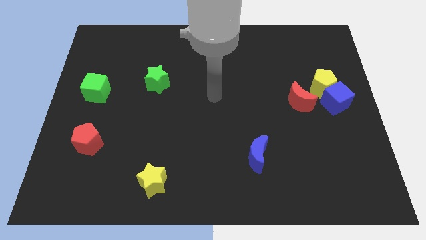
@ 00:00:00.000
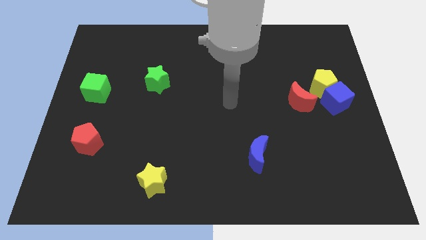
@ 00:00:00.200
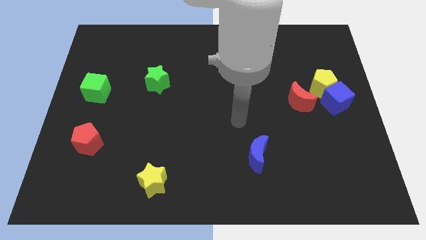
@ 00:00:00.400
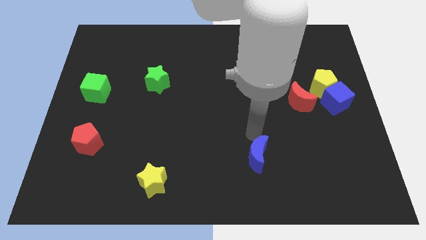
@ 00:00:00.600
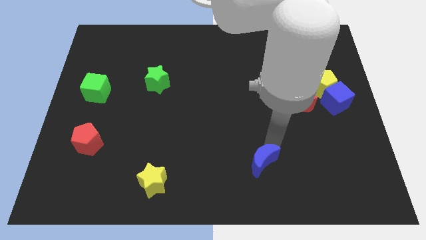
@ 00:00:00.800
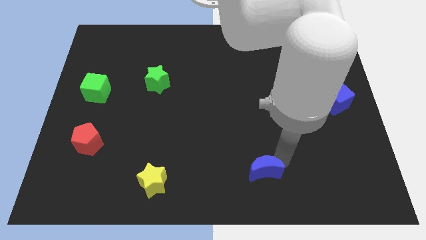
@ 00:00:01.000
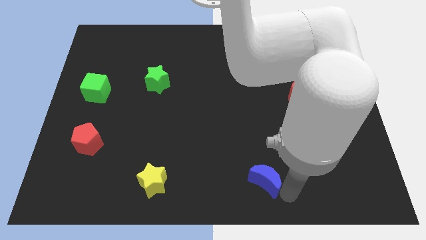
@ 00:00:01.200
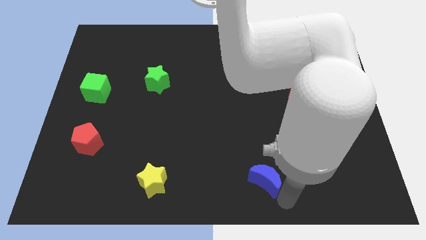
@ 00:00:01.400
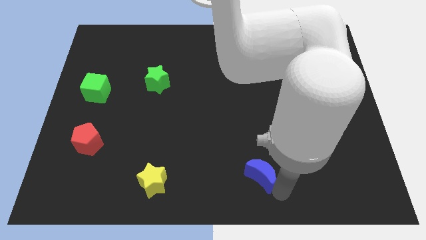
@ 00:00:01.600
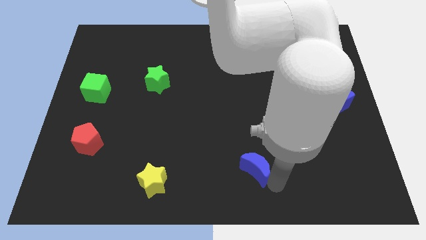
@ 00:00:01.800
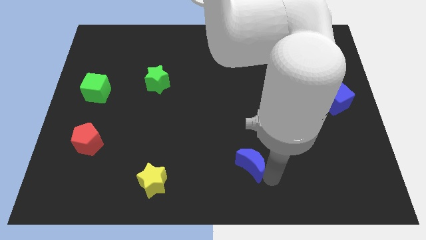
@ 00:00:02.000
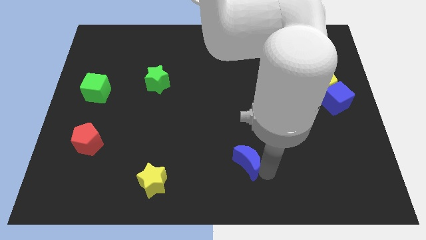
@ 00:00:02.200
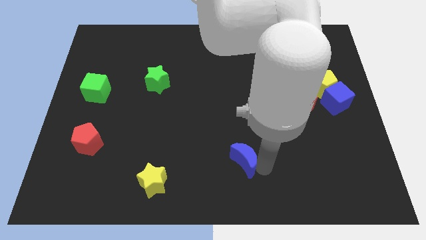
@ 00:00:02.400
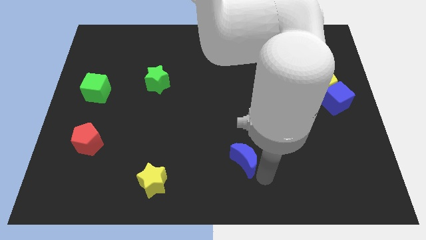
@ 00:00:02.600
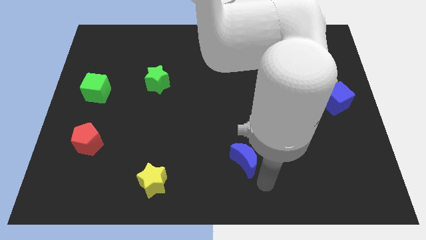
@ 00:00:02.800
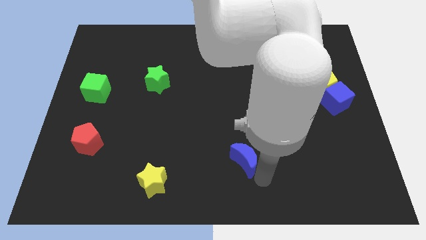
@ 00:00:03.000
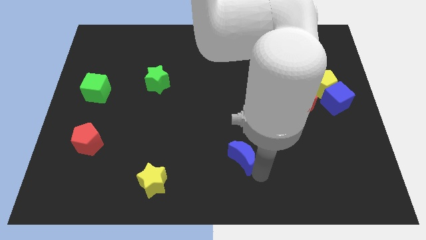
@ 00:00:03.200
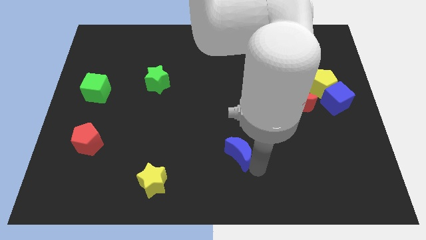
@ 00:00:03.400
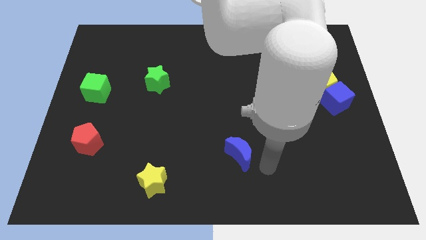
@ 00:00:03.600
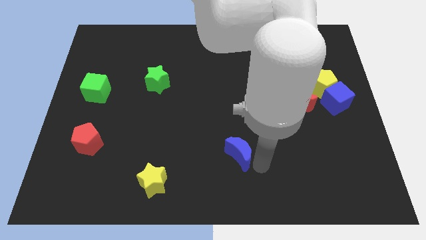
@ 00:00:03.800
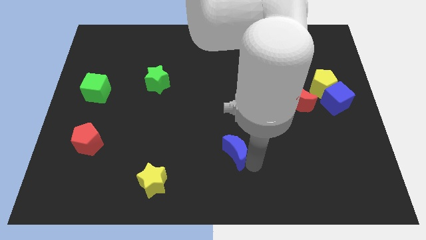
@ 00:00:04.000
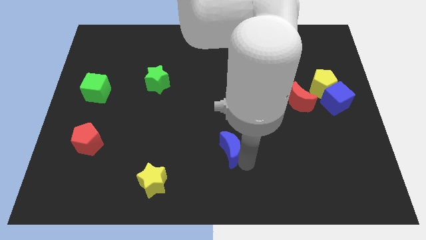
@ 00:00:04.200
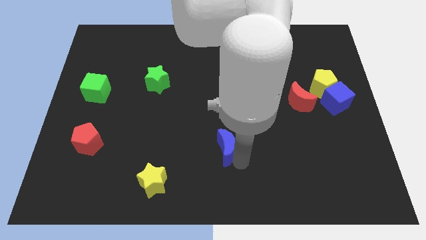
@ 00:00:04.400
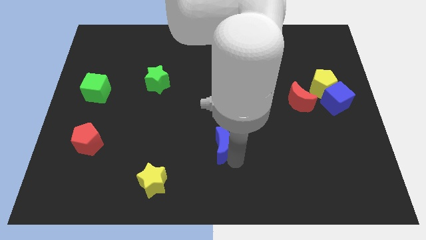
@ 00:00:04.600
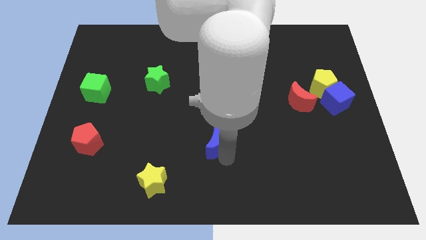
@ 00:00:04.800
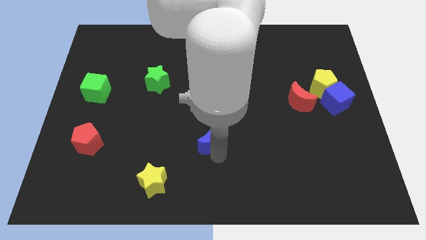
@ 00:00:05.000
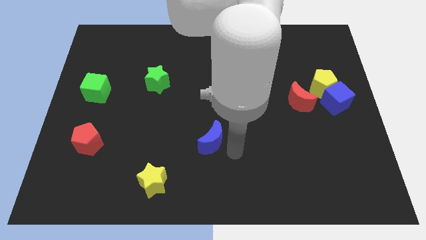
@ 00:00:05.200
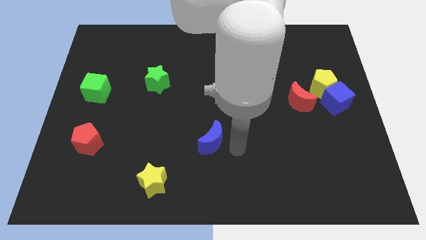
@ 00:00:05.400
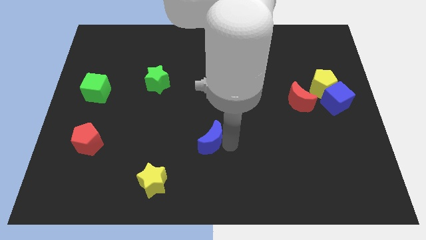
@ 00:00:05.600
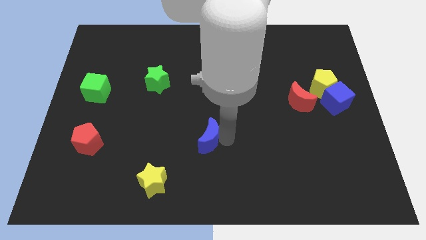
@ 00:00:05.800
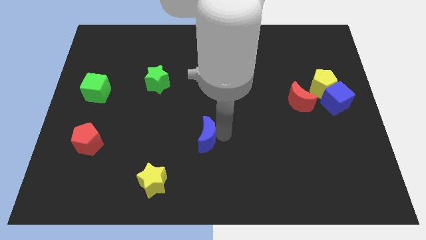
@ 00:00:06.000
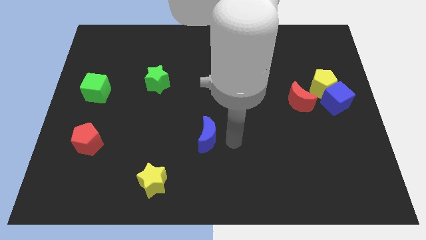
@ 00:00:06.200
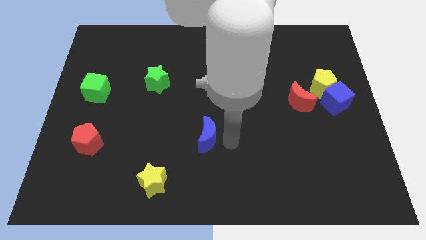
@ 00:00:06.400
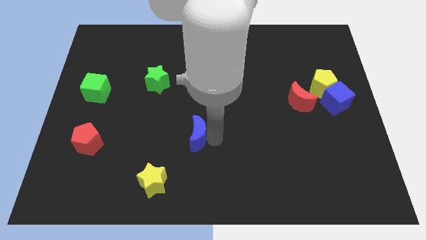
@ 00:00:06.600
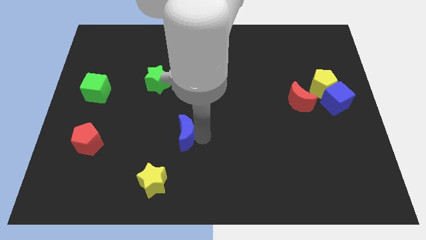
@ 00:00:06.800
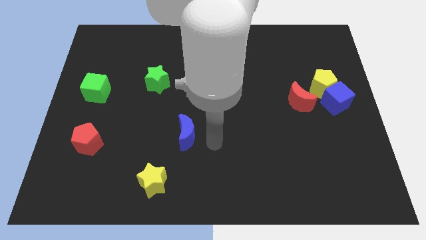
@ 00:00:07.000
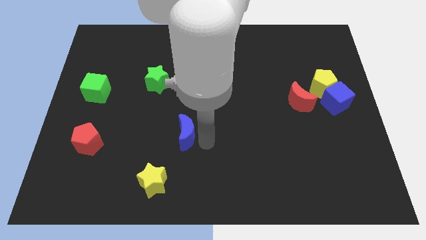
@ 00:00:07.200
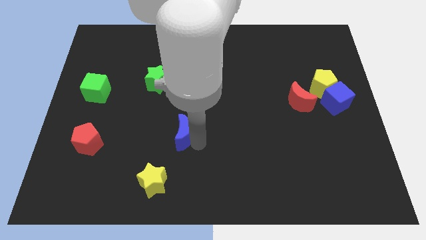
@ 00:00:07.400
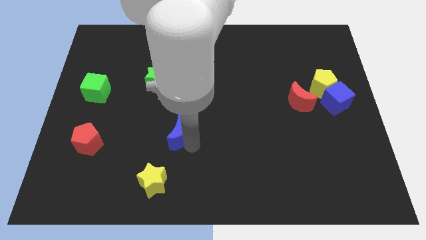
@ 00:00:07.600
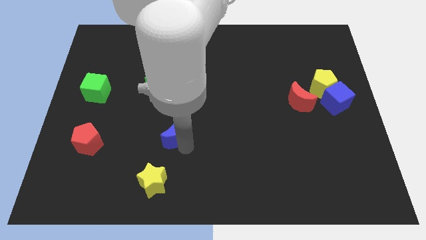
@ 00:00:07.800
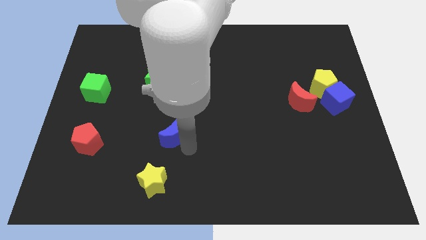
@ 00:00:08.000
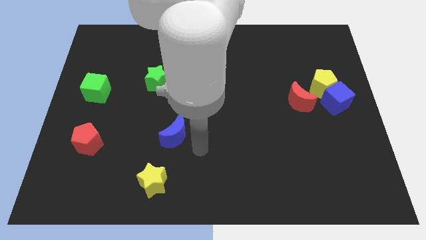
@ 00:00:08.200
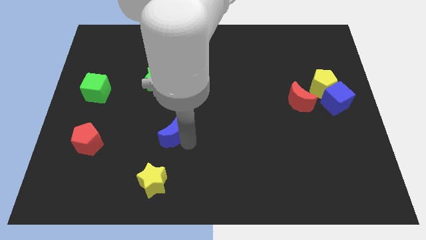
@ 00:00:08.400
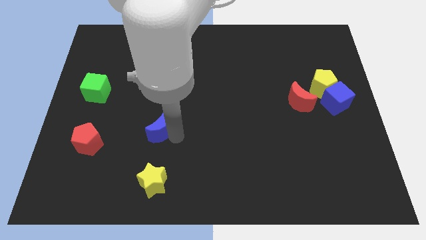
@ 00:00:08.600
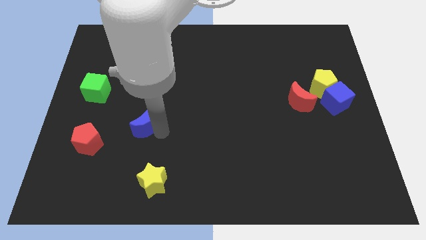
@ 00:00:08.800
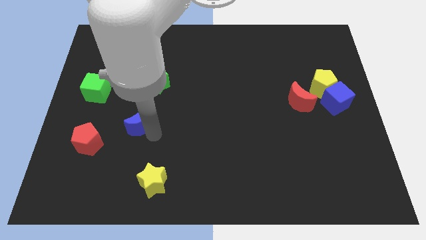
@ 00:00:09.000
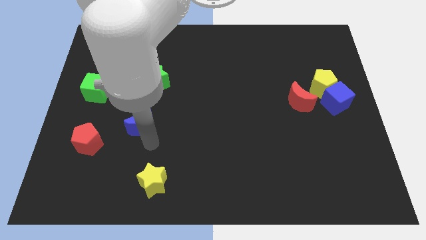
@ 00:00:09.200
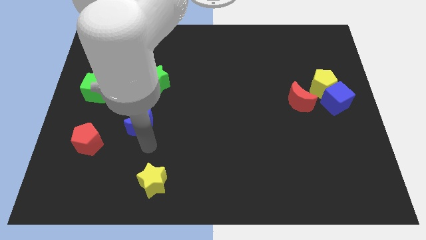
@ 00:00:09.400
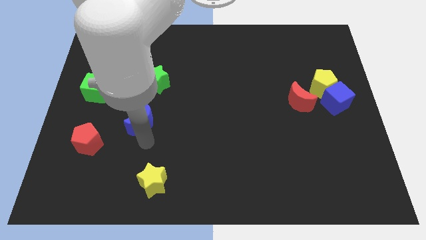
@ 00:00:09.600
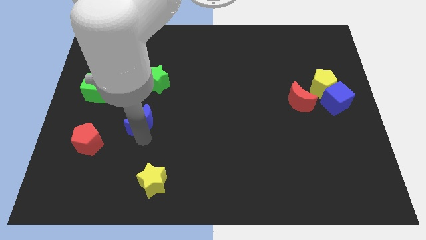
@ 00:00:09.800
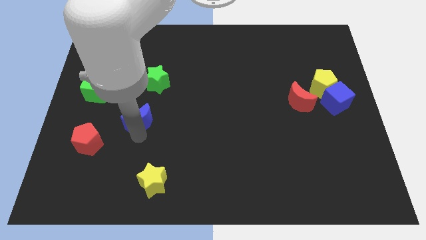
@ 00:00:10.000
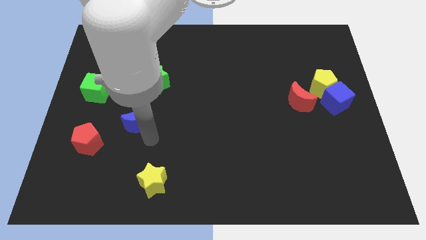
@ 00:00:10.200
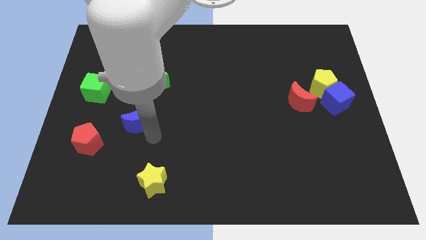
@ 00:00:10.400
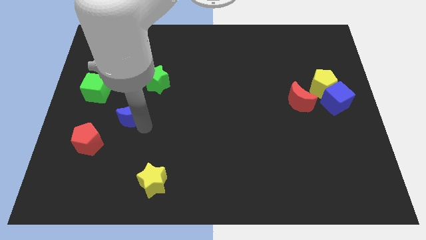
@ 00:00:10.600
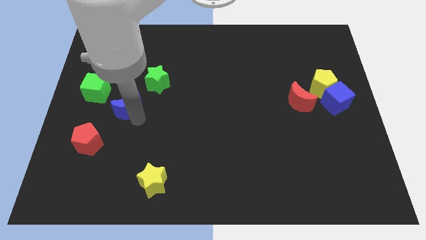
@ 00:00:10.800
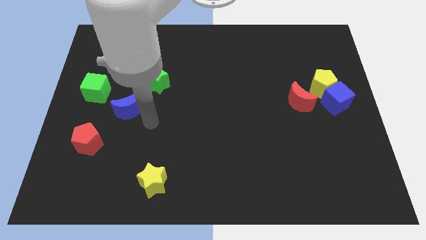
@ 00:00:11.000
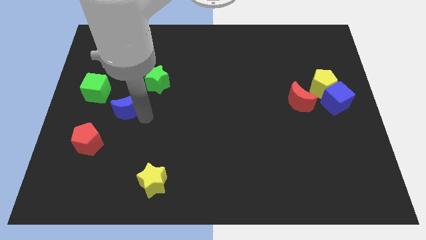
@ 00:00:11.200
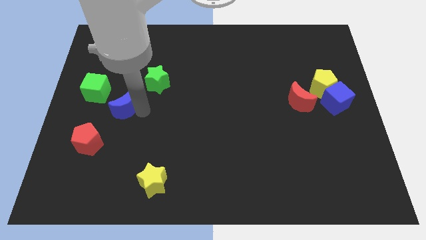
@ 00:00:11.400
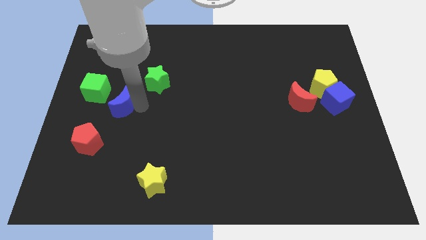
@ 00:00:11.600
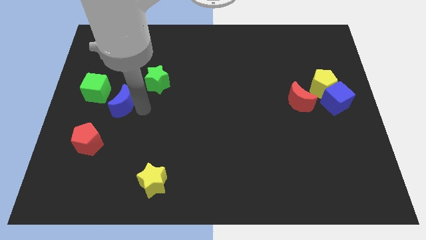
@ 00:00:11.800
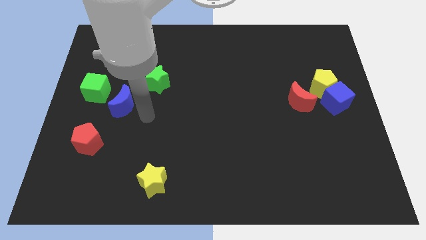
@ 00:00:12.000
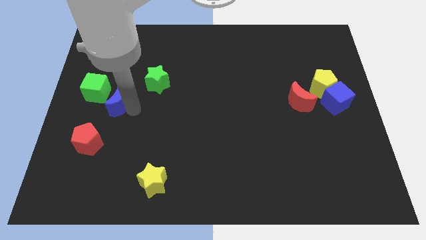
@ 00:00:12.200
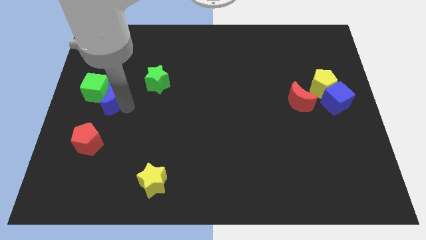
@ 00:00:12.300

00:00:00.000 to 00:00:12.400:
move the blue moon close to the green cube
